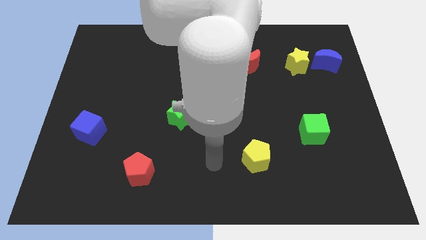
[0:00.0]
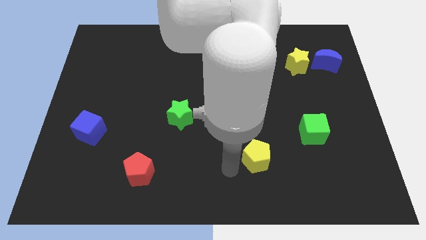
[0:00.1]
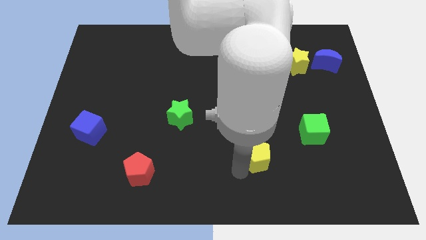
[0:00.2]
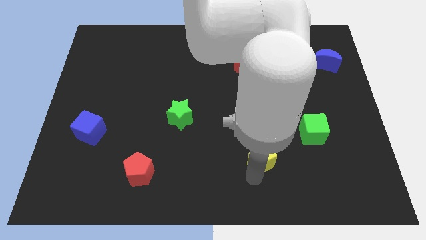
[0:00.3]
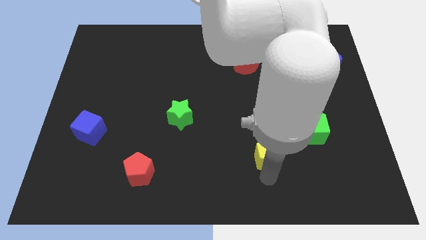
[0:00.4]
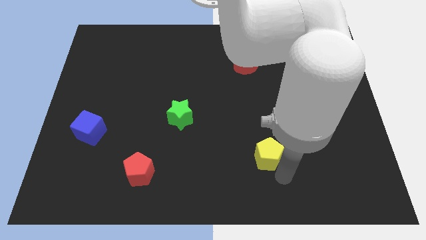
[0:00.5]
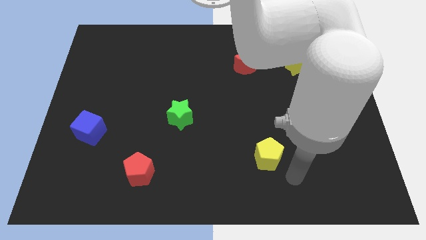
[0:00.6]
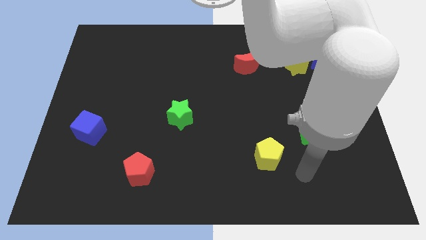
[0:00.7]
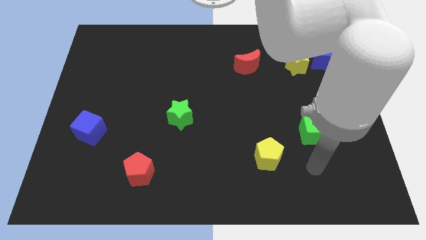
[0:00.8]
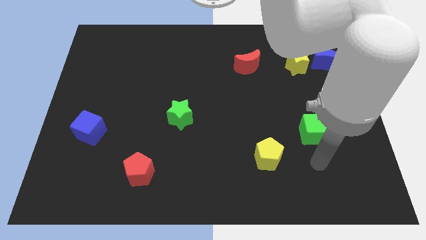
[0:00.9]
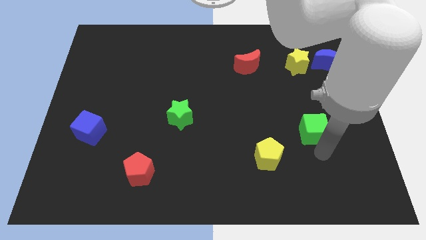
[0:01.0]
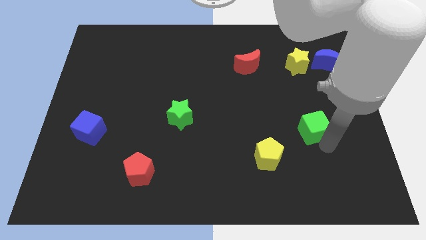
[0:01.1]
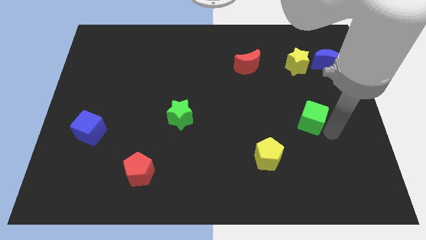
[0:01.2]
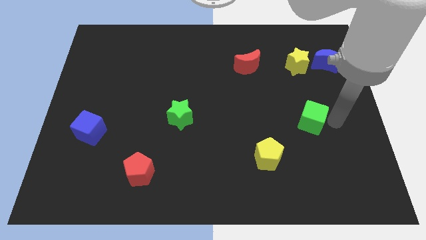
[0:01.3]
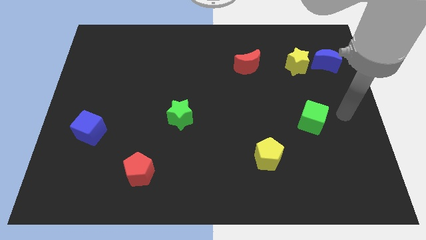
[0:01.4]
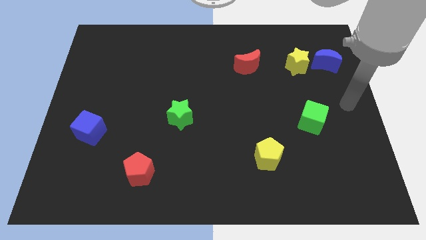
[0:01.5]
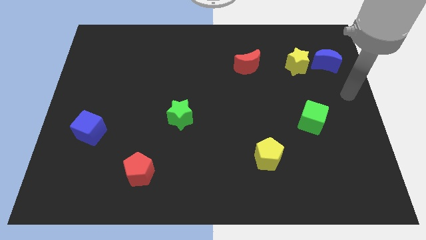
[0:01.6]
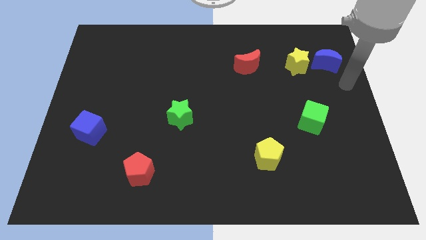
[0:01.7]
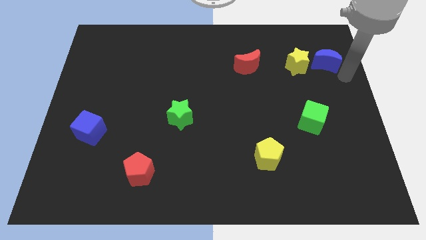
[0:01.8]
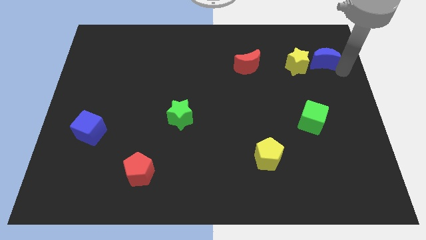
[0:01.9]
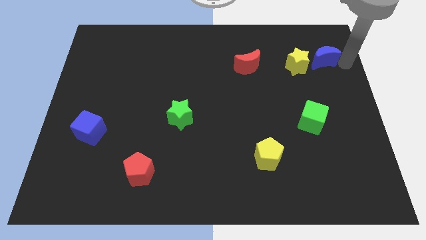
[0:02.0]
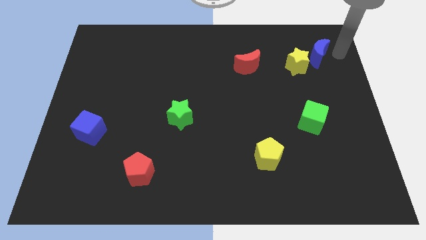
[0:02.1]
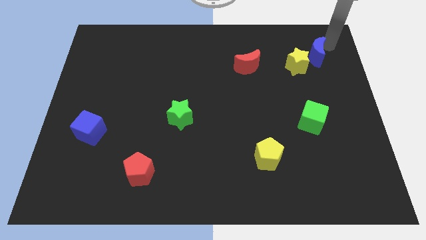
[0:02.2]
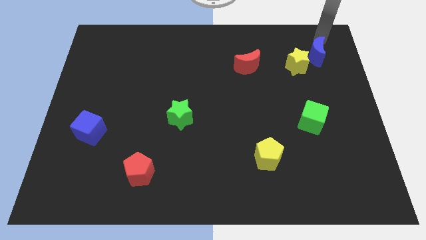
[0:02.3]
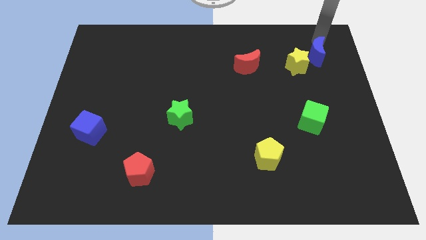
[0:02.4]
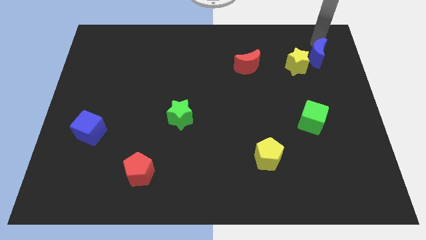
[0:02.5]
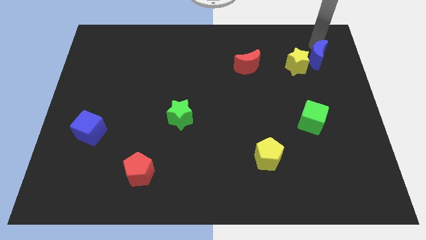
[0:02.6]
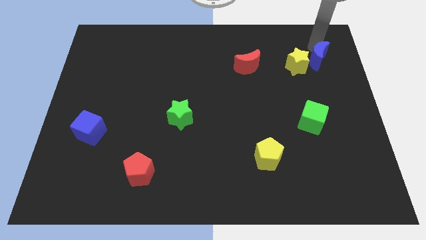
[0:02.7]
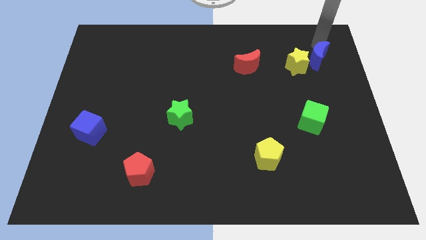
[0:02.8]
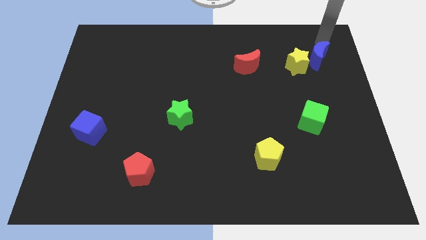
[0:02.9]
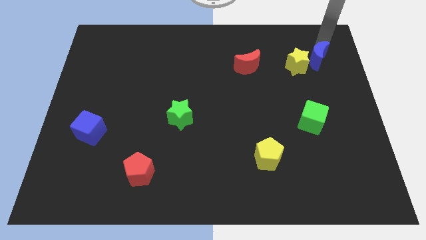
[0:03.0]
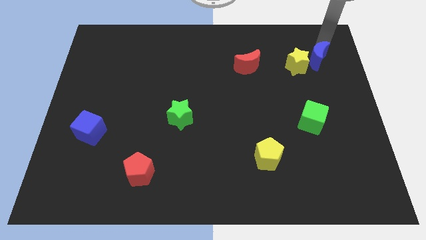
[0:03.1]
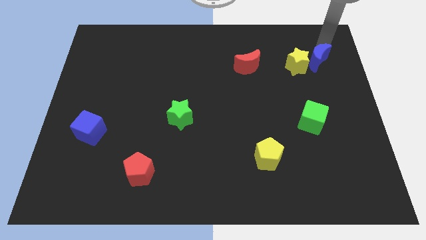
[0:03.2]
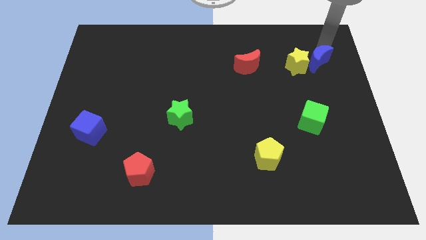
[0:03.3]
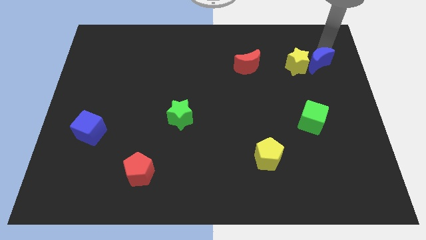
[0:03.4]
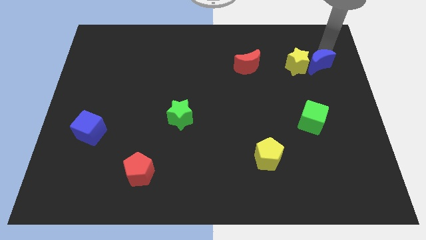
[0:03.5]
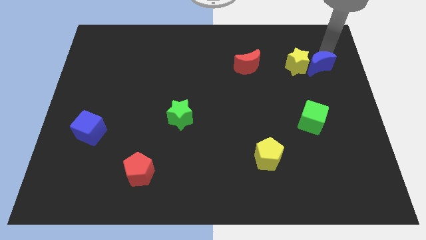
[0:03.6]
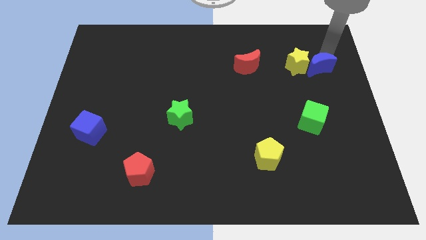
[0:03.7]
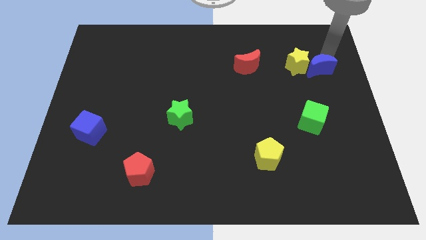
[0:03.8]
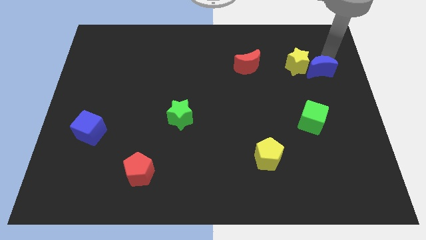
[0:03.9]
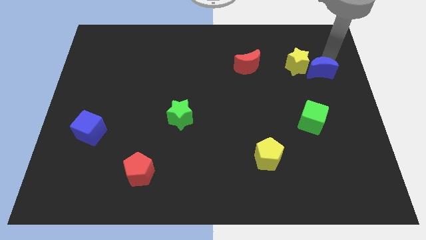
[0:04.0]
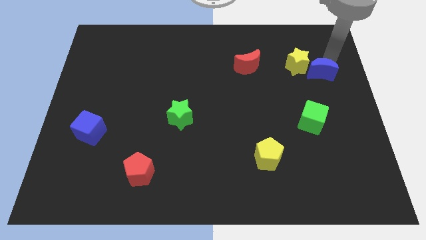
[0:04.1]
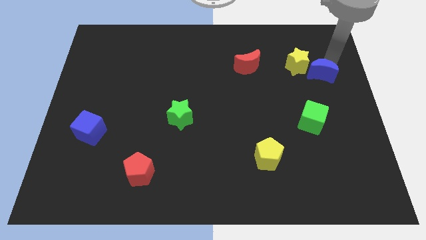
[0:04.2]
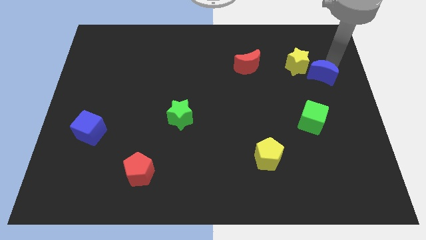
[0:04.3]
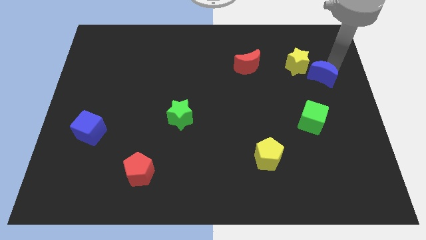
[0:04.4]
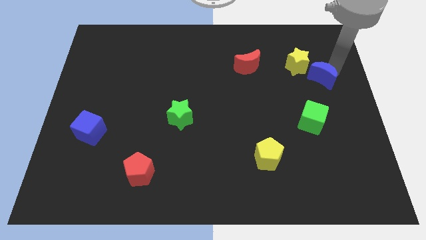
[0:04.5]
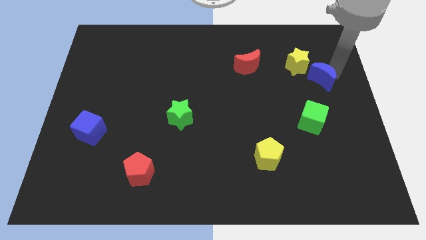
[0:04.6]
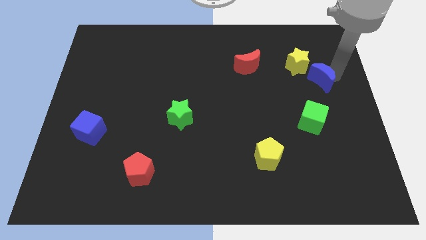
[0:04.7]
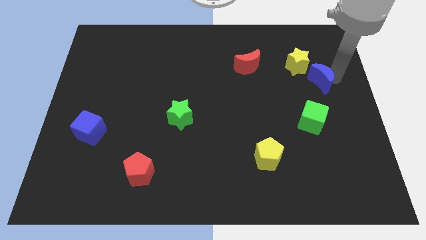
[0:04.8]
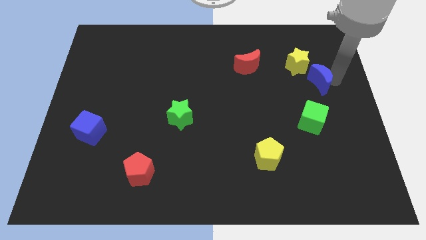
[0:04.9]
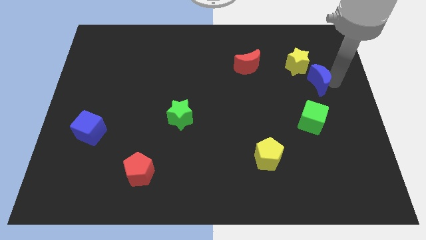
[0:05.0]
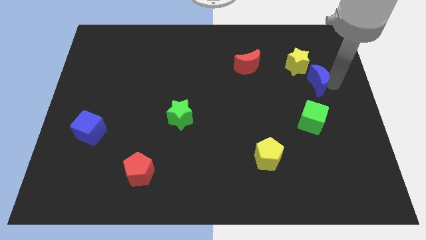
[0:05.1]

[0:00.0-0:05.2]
slide the blue moon somewhat downwards and then left

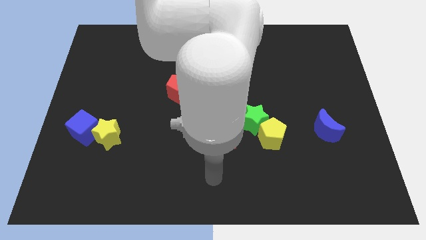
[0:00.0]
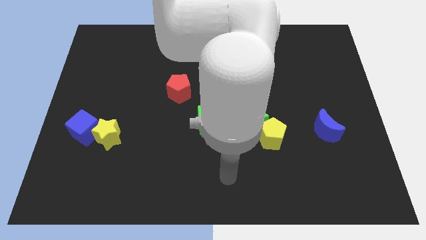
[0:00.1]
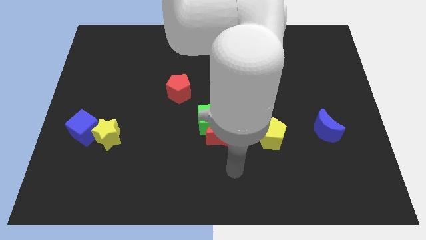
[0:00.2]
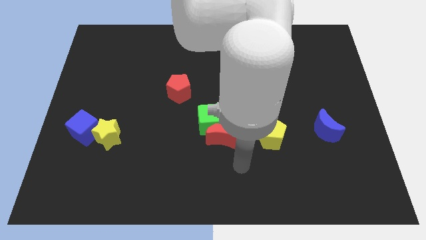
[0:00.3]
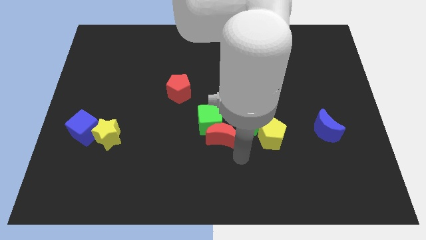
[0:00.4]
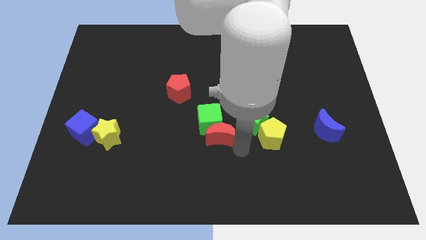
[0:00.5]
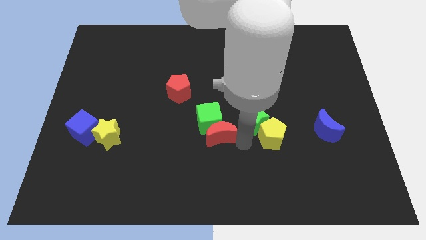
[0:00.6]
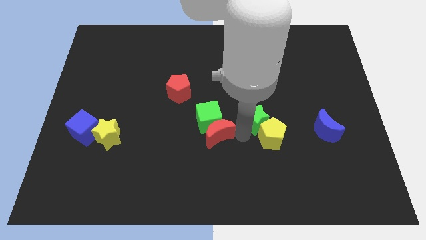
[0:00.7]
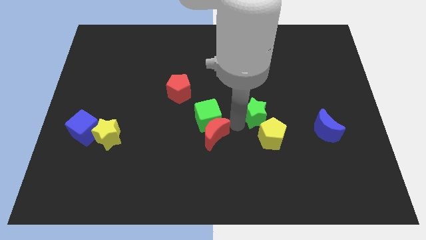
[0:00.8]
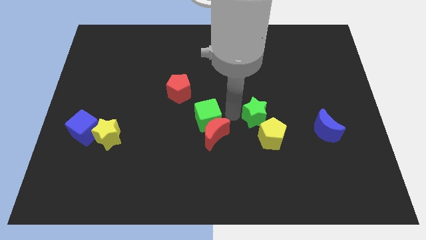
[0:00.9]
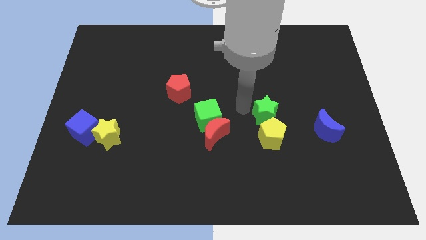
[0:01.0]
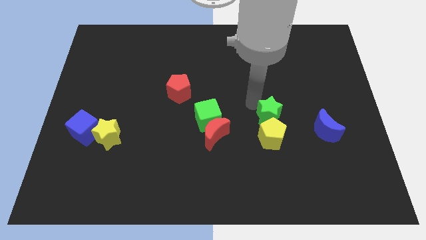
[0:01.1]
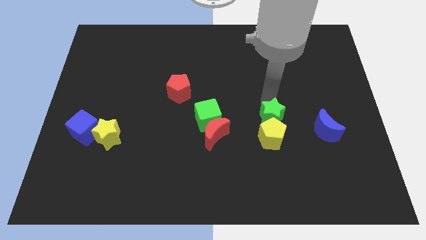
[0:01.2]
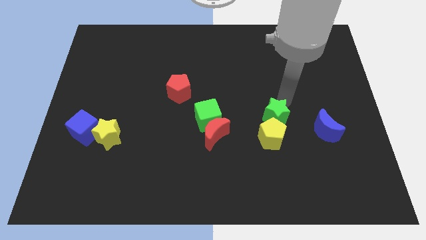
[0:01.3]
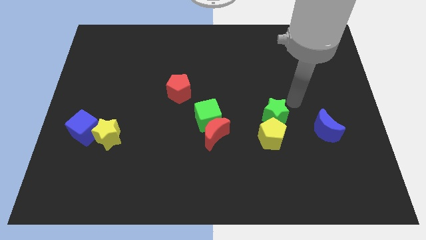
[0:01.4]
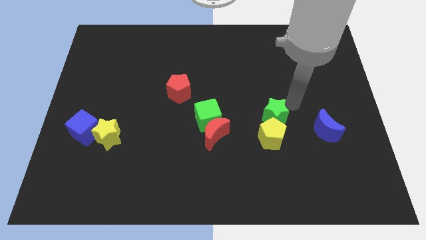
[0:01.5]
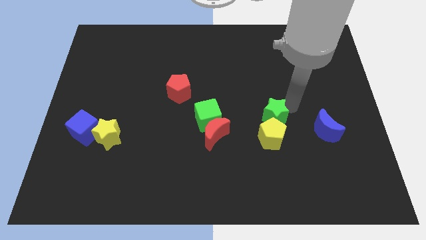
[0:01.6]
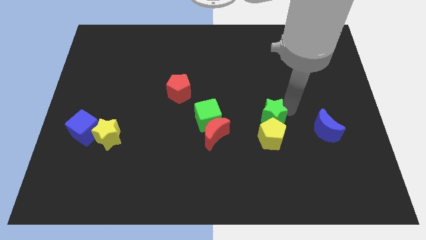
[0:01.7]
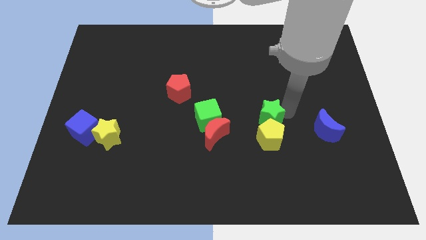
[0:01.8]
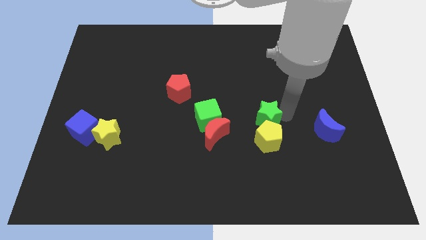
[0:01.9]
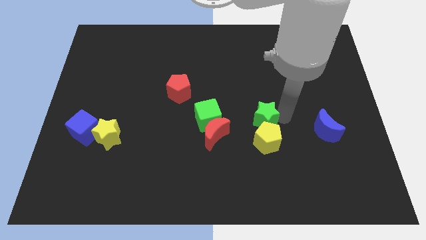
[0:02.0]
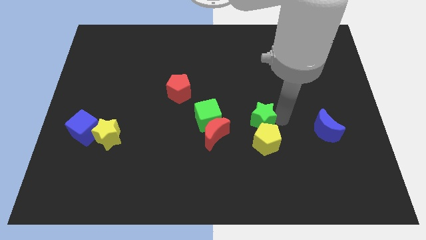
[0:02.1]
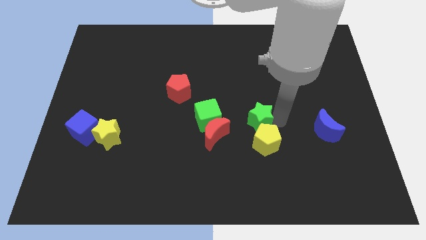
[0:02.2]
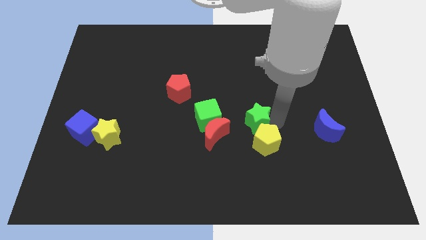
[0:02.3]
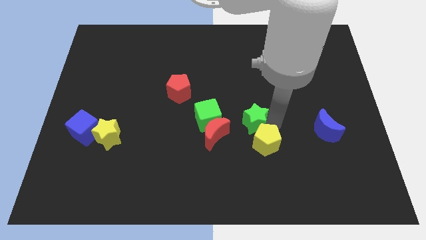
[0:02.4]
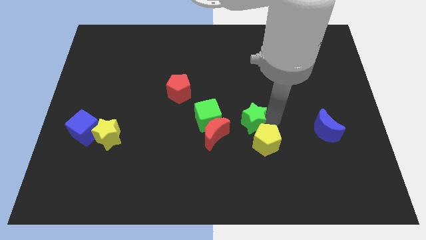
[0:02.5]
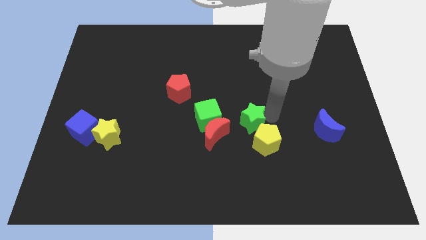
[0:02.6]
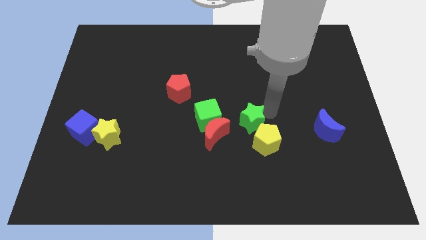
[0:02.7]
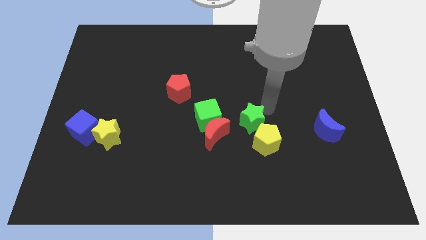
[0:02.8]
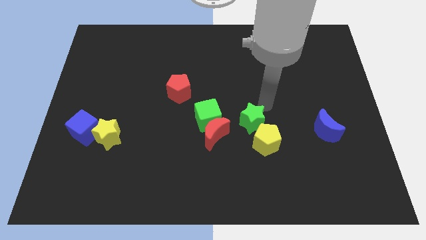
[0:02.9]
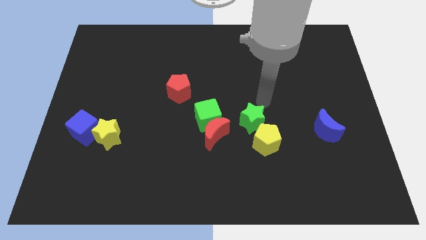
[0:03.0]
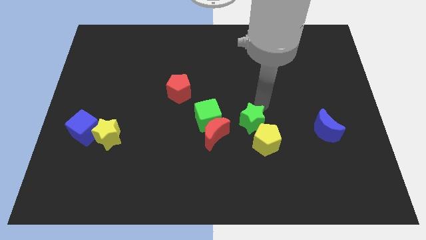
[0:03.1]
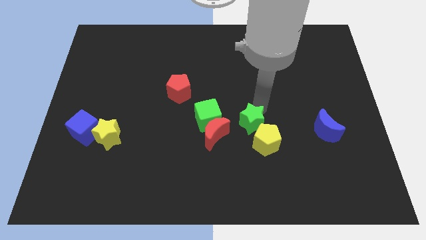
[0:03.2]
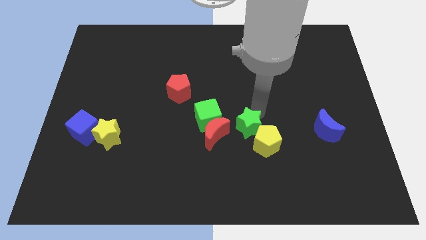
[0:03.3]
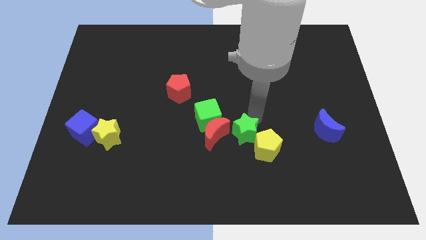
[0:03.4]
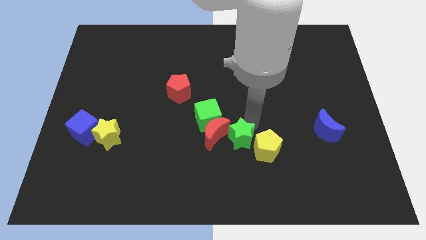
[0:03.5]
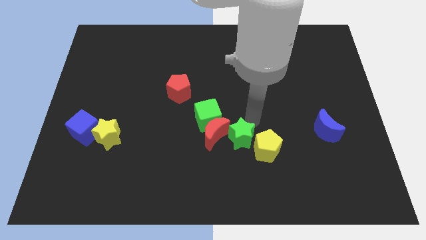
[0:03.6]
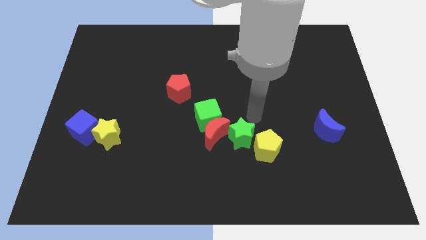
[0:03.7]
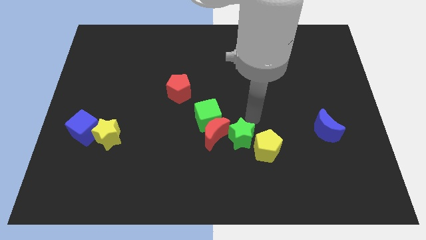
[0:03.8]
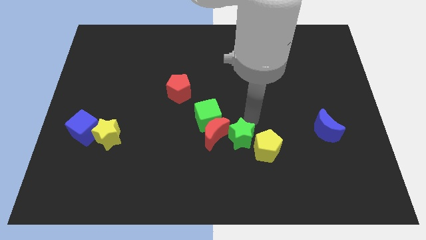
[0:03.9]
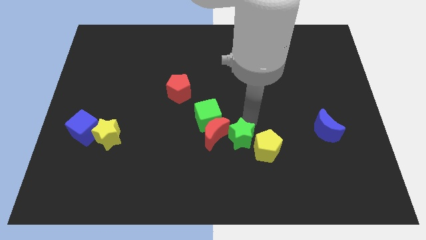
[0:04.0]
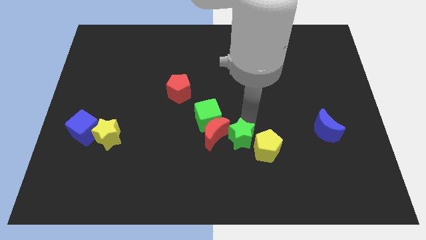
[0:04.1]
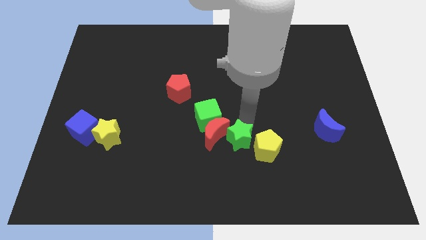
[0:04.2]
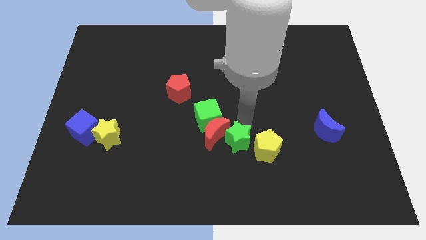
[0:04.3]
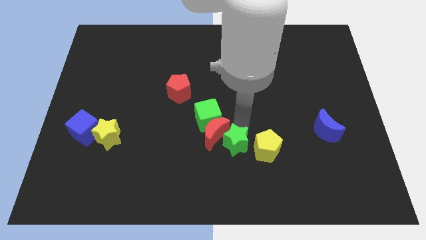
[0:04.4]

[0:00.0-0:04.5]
move the green star a little downwards and then left
